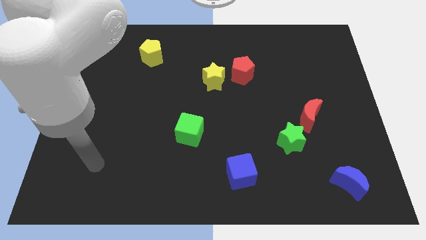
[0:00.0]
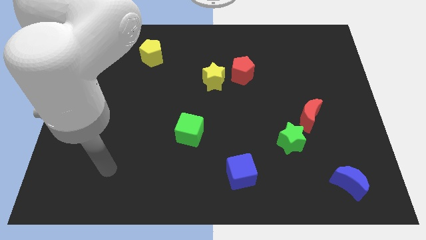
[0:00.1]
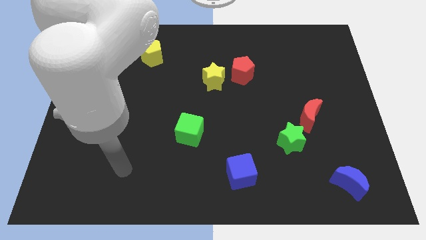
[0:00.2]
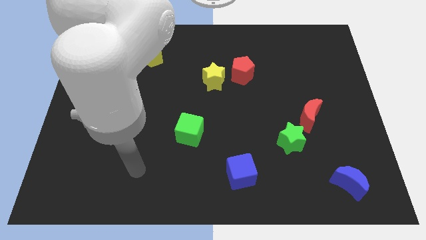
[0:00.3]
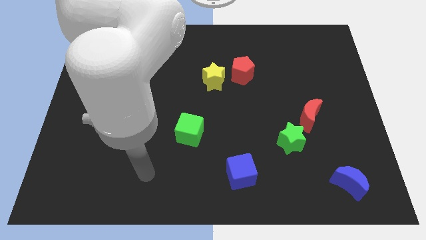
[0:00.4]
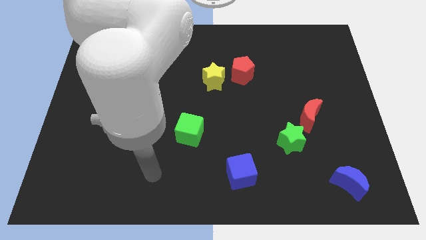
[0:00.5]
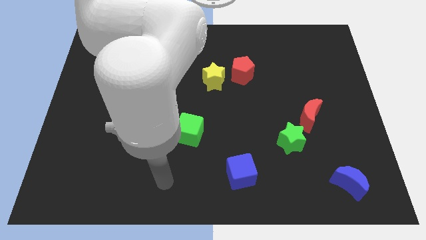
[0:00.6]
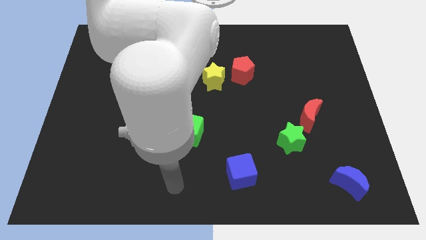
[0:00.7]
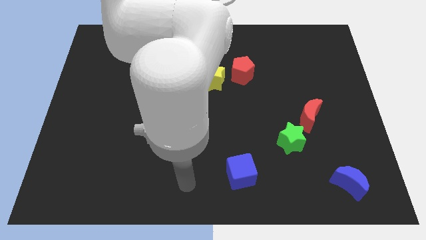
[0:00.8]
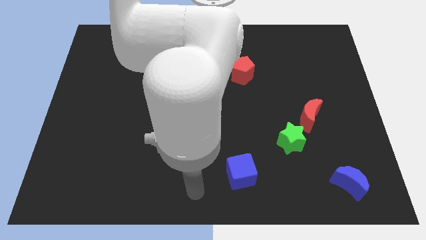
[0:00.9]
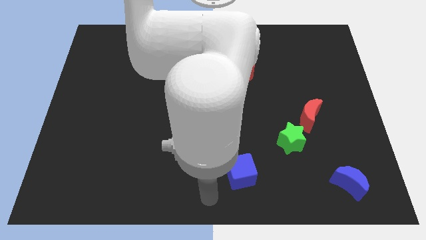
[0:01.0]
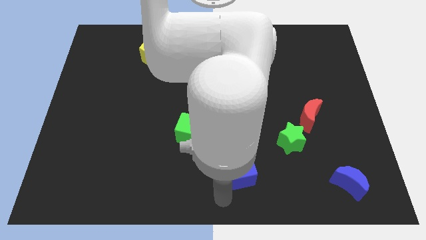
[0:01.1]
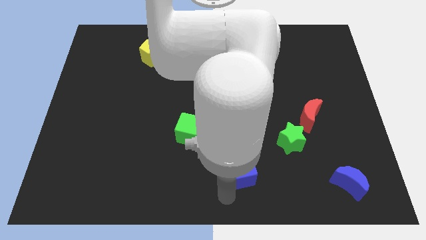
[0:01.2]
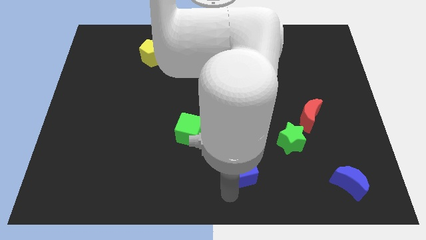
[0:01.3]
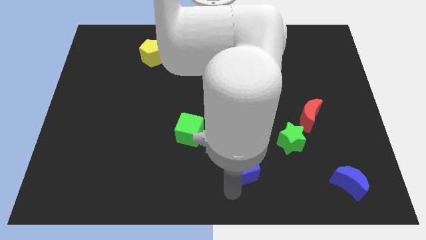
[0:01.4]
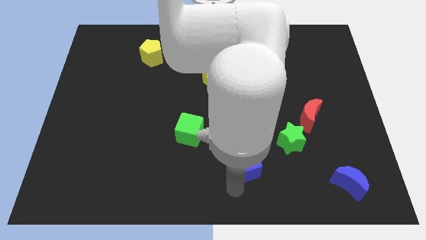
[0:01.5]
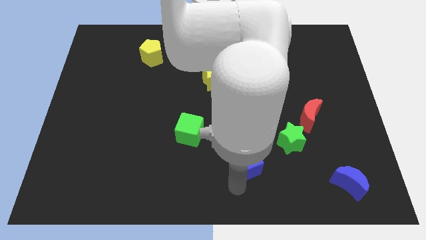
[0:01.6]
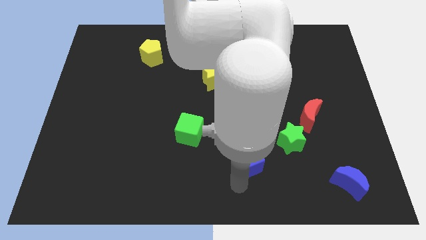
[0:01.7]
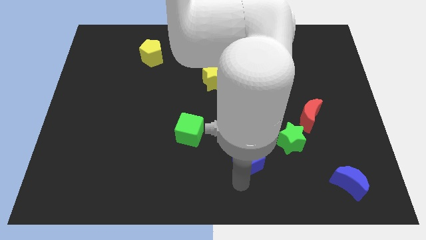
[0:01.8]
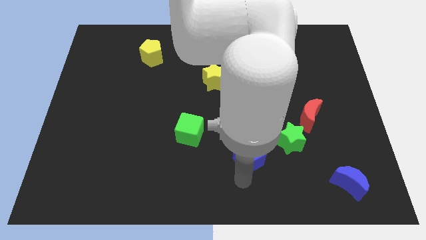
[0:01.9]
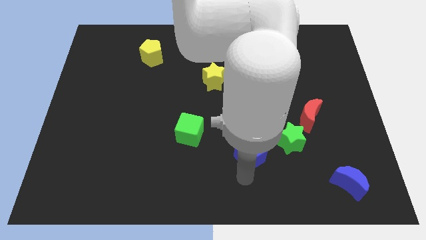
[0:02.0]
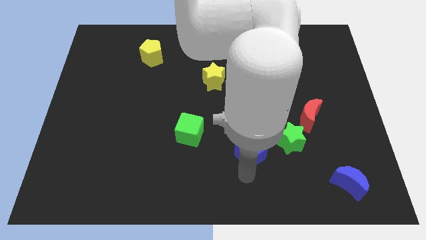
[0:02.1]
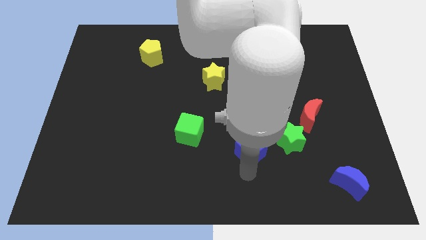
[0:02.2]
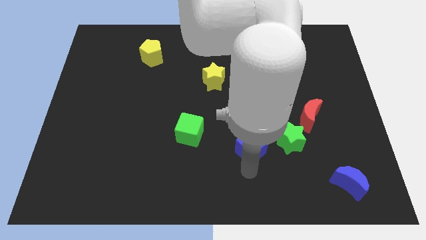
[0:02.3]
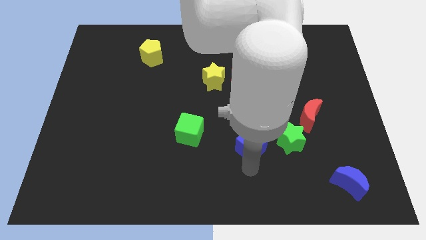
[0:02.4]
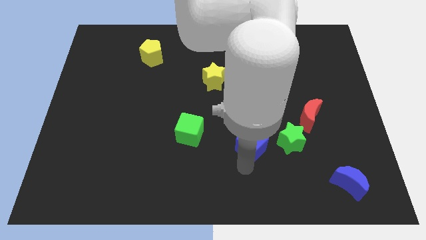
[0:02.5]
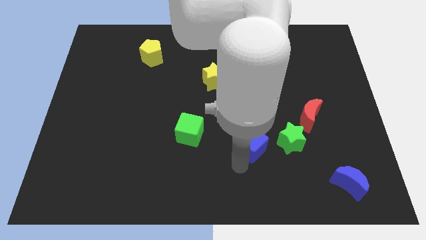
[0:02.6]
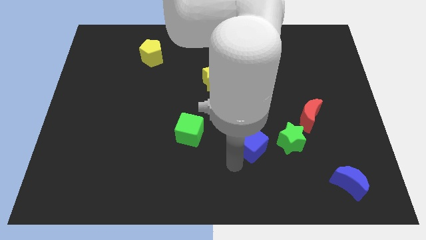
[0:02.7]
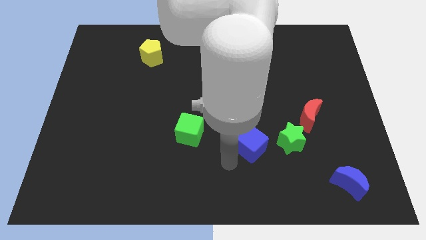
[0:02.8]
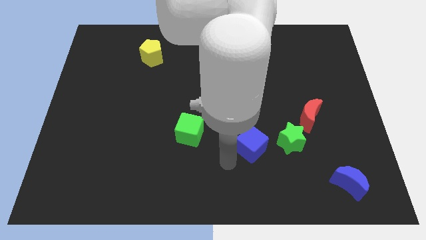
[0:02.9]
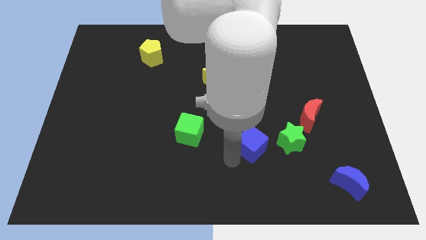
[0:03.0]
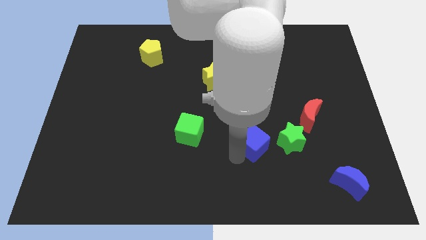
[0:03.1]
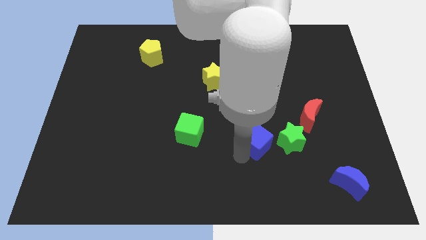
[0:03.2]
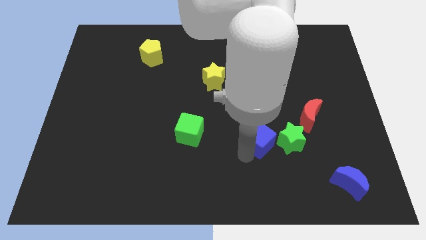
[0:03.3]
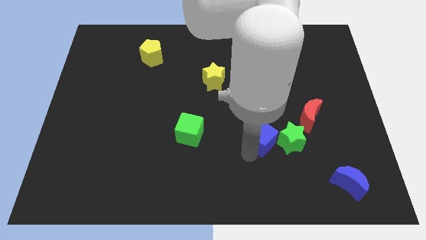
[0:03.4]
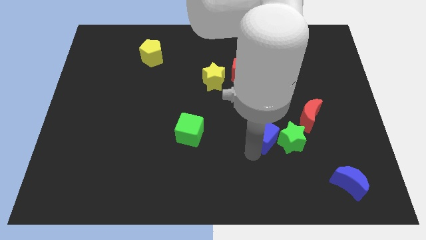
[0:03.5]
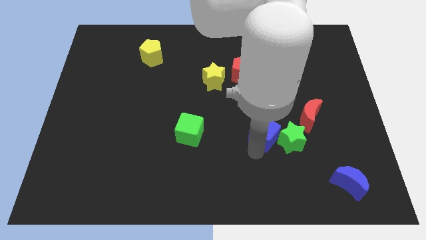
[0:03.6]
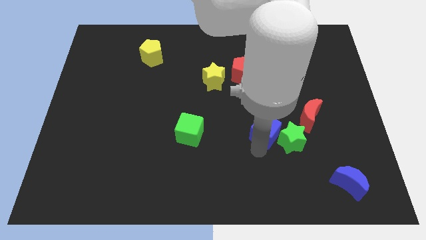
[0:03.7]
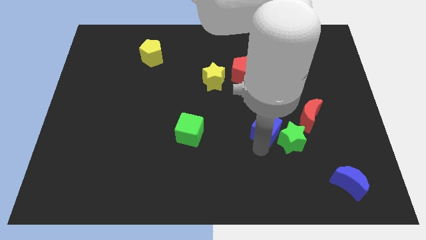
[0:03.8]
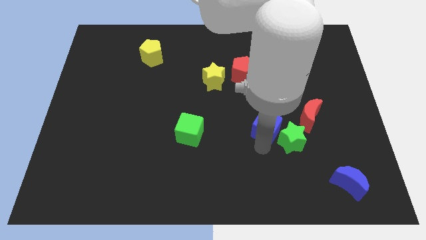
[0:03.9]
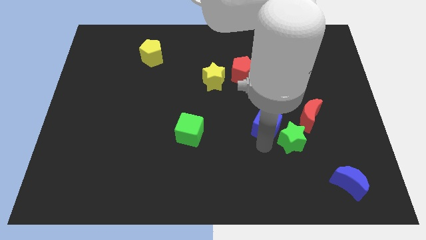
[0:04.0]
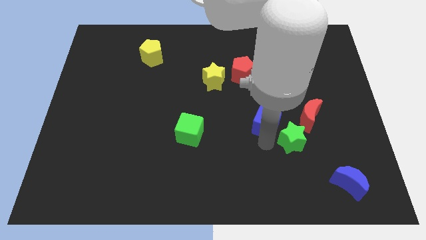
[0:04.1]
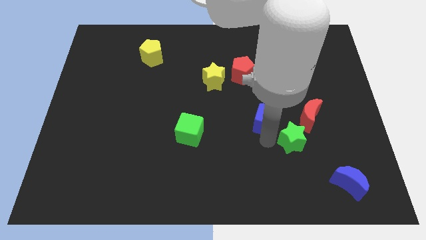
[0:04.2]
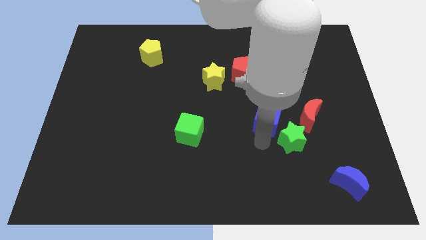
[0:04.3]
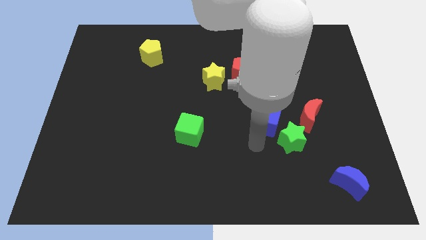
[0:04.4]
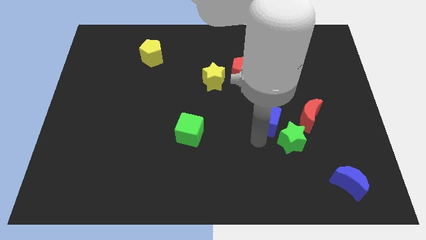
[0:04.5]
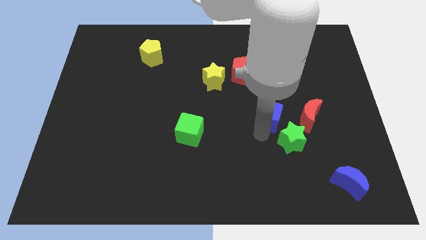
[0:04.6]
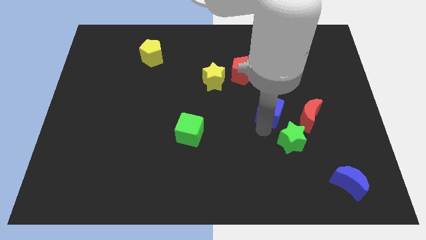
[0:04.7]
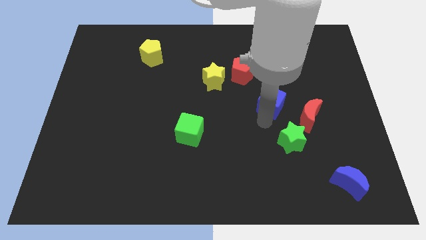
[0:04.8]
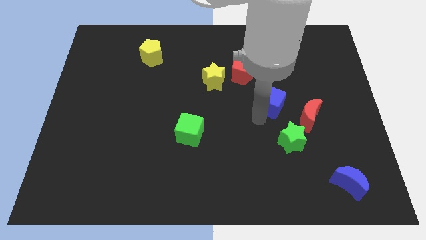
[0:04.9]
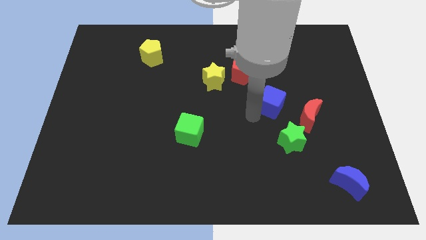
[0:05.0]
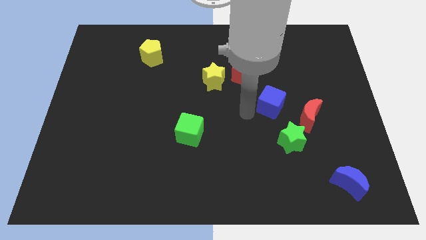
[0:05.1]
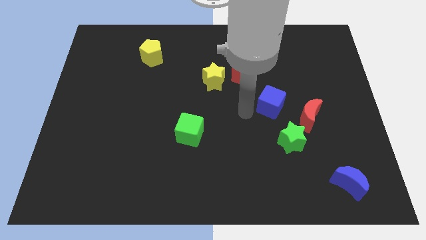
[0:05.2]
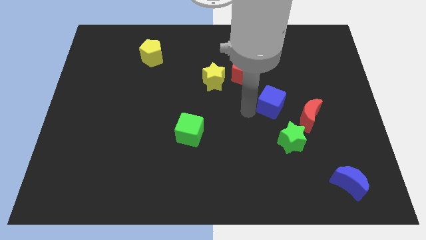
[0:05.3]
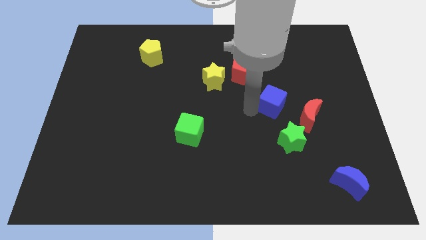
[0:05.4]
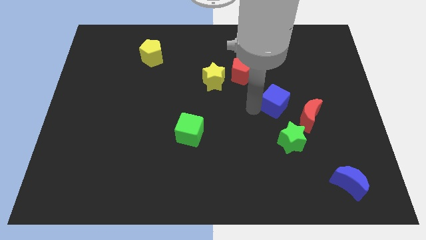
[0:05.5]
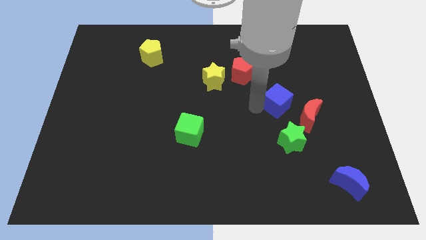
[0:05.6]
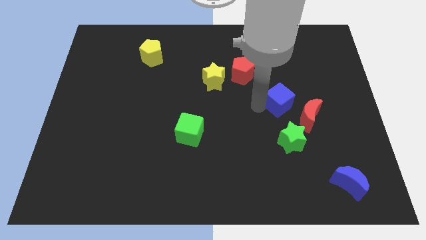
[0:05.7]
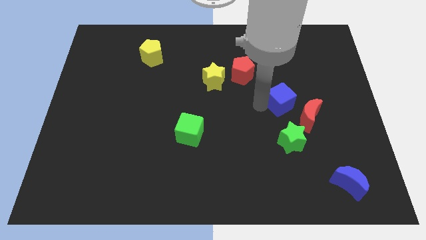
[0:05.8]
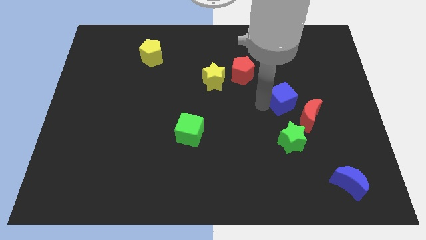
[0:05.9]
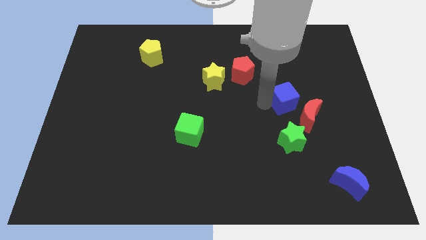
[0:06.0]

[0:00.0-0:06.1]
slide the blue cube upwards and then right

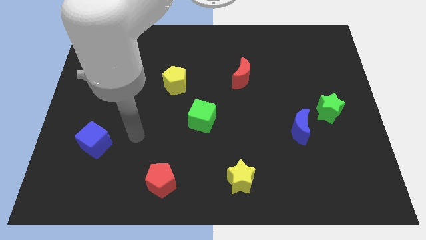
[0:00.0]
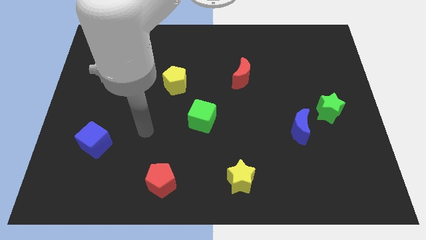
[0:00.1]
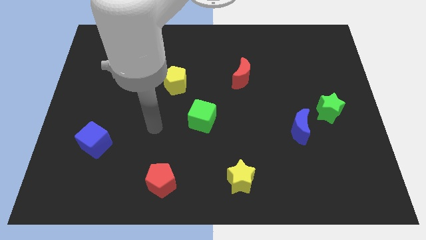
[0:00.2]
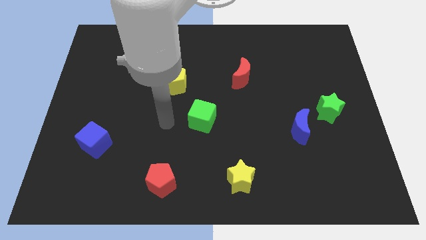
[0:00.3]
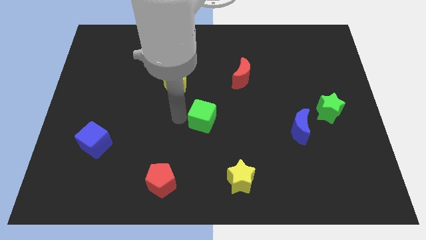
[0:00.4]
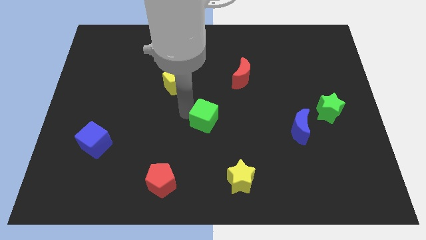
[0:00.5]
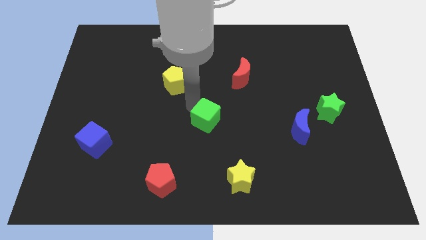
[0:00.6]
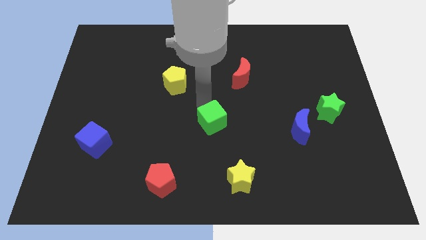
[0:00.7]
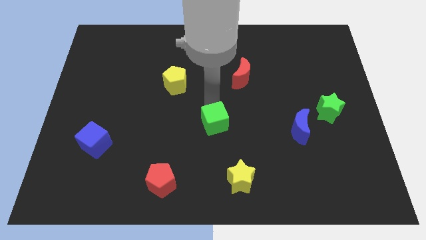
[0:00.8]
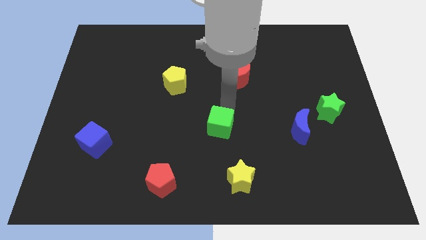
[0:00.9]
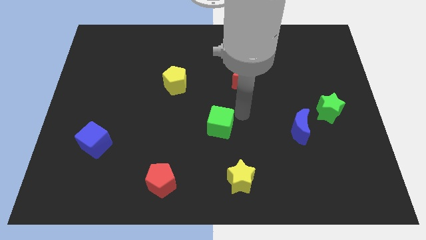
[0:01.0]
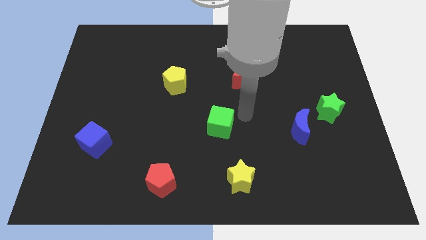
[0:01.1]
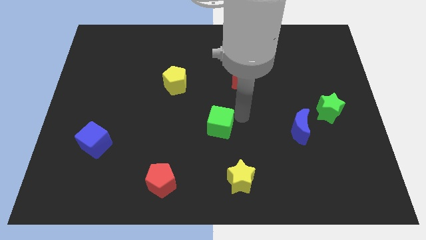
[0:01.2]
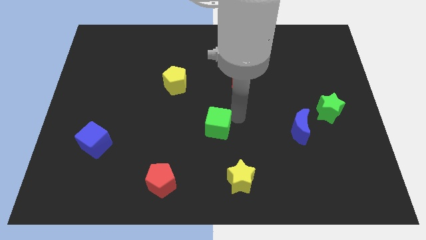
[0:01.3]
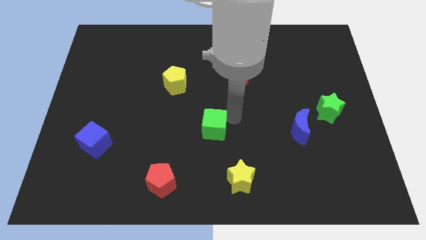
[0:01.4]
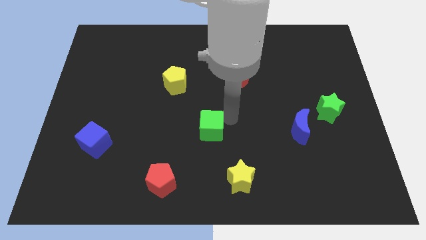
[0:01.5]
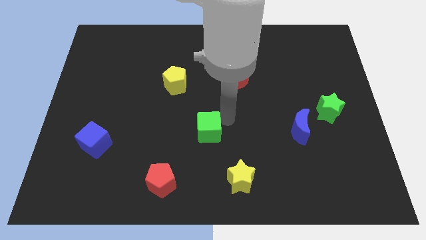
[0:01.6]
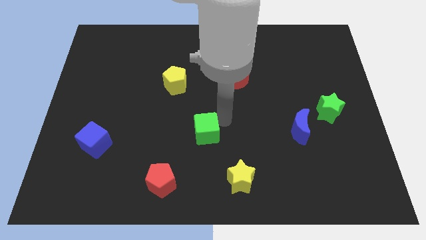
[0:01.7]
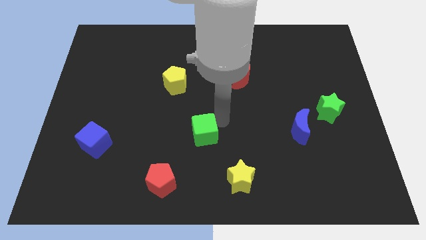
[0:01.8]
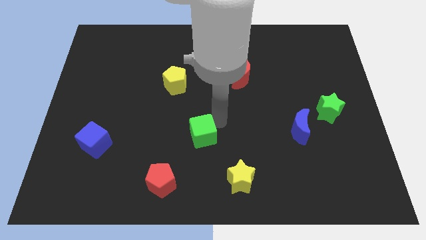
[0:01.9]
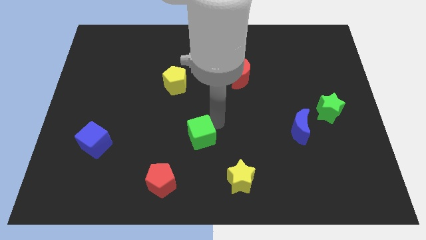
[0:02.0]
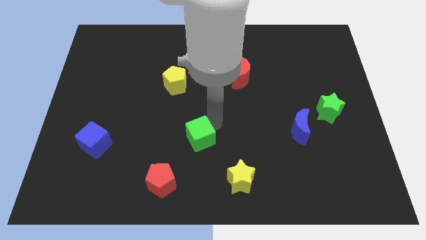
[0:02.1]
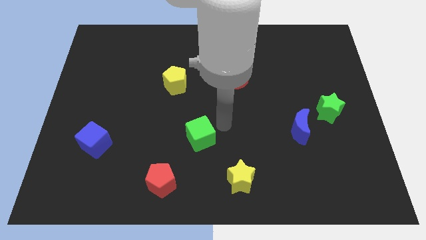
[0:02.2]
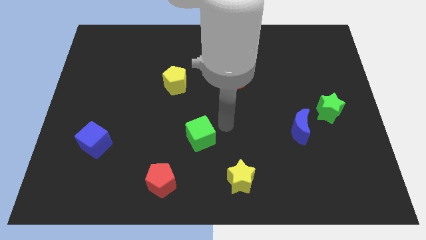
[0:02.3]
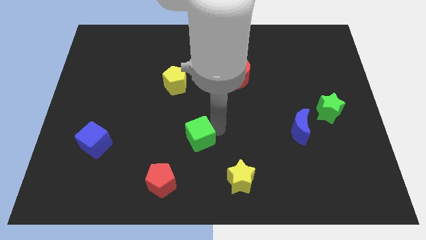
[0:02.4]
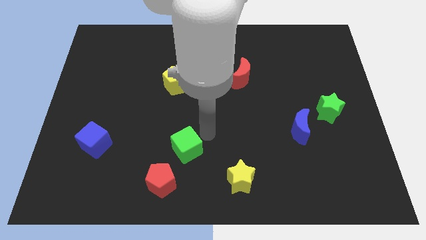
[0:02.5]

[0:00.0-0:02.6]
slide the green cube downwards and left somewhat

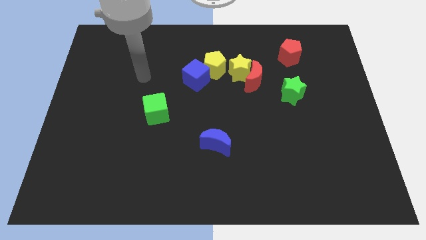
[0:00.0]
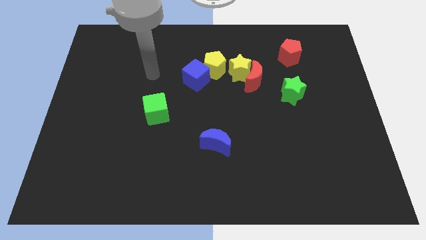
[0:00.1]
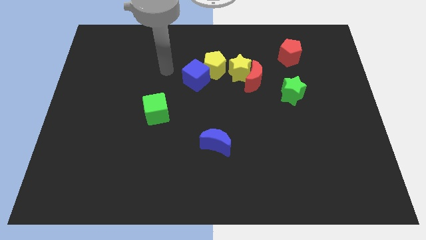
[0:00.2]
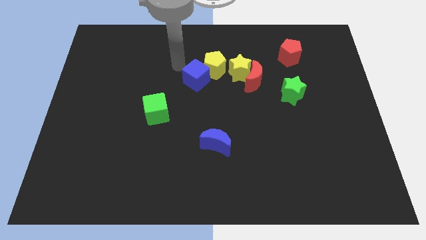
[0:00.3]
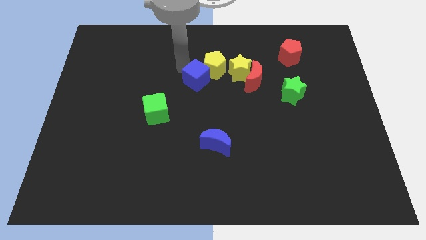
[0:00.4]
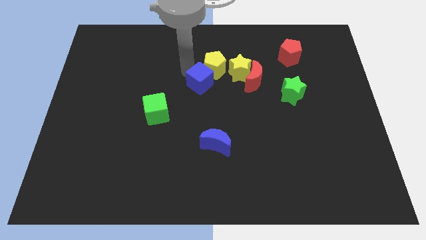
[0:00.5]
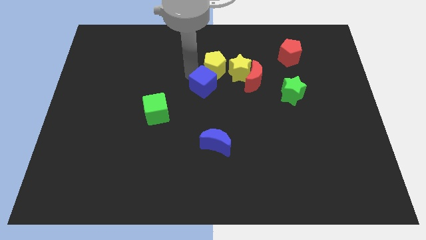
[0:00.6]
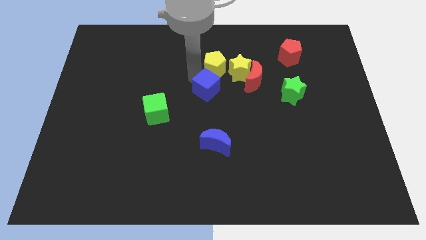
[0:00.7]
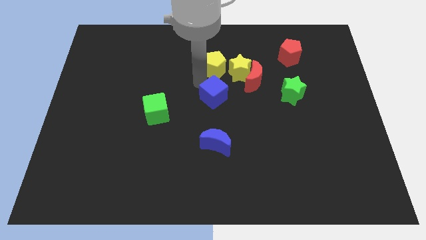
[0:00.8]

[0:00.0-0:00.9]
push the blue cube slightly down and to the right diagonally
